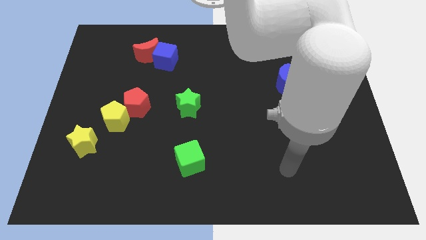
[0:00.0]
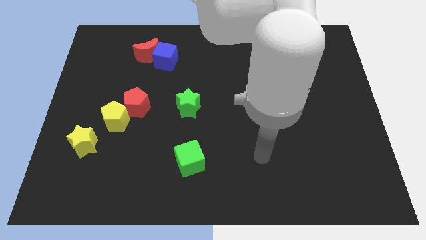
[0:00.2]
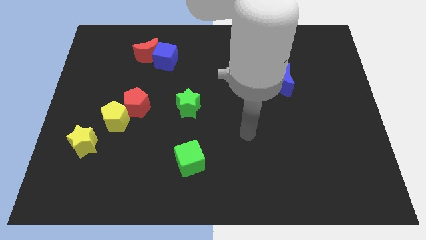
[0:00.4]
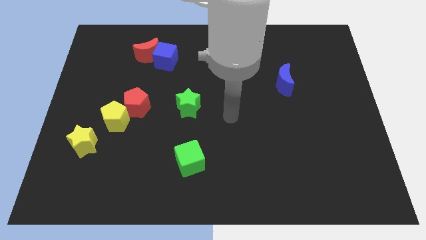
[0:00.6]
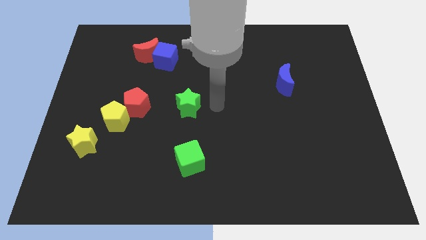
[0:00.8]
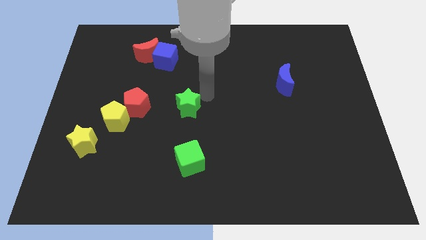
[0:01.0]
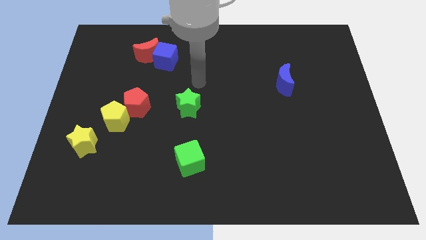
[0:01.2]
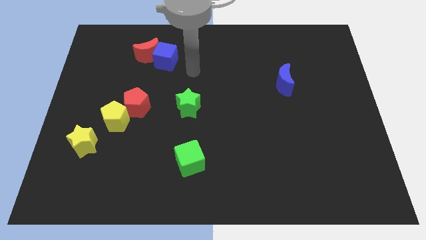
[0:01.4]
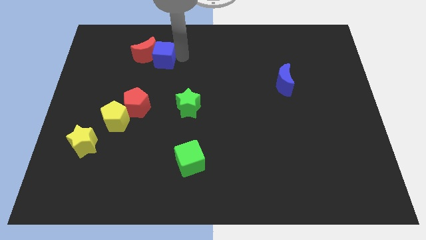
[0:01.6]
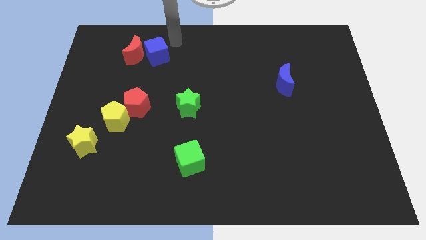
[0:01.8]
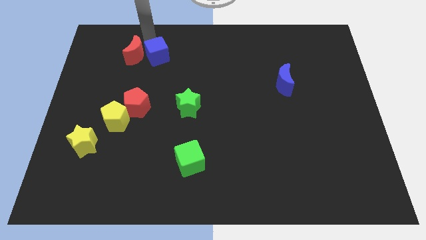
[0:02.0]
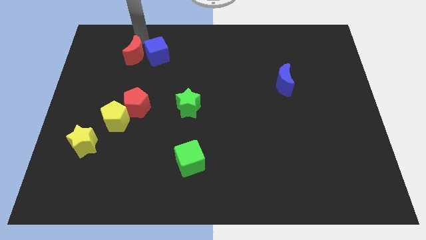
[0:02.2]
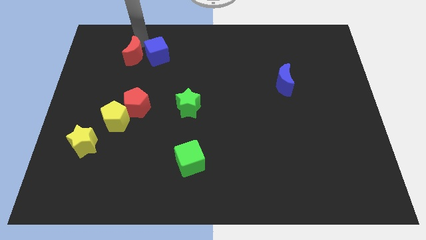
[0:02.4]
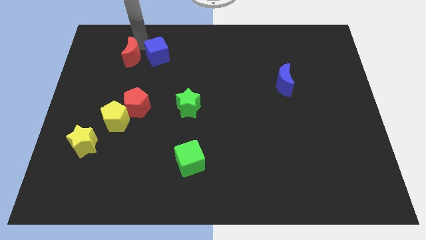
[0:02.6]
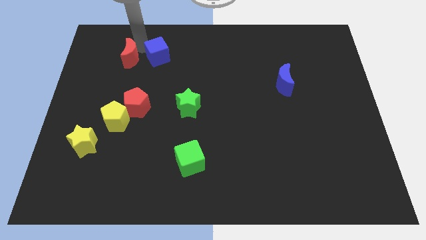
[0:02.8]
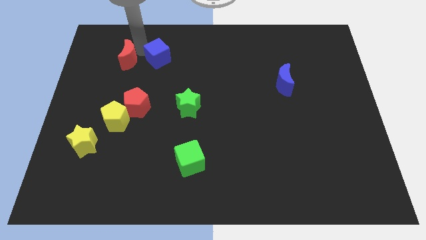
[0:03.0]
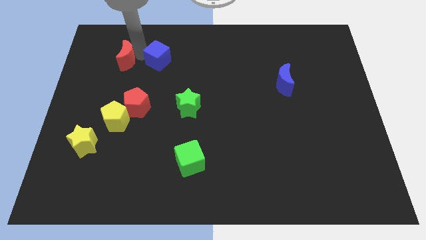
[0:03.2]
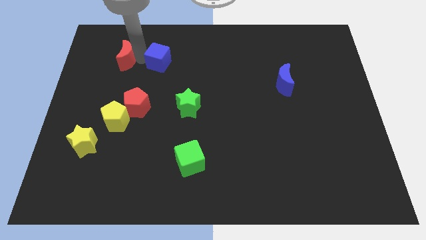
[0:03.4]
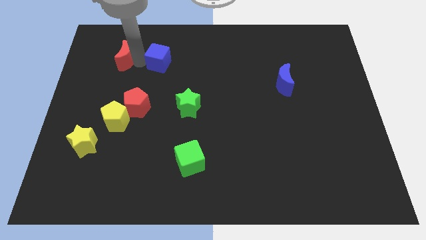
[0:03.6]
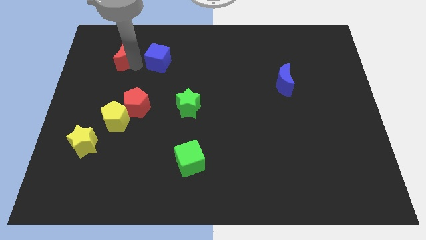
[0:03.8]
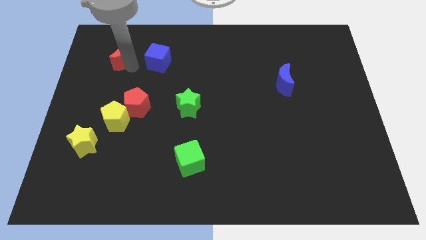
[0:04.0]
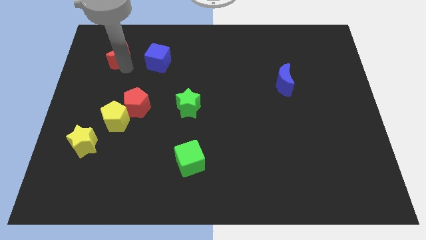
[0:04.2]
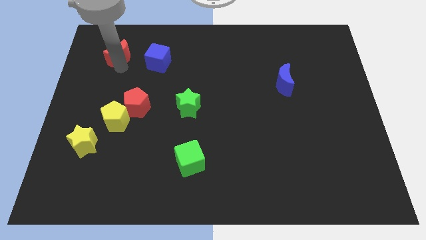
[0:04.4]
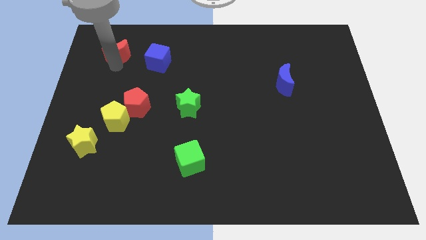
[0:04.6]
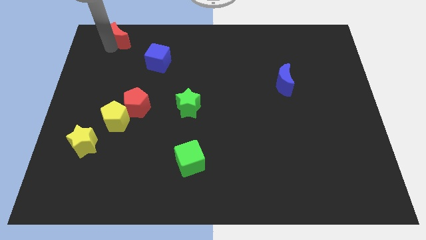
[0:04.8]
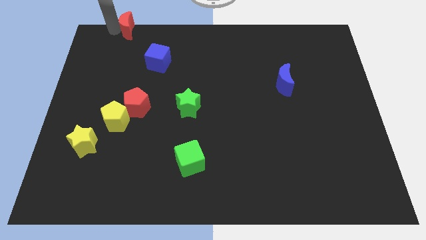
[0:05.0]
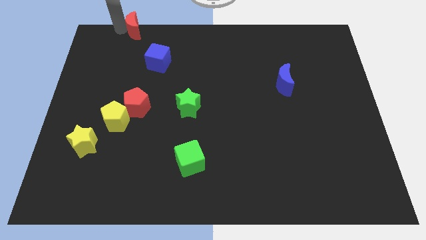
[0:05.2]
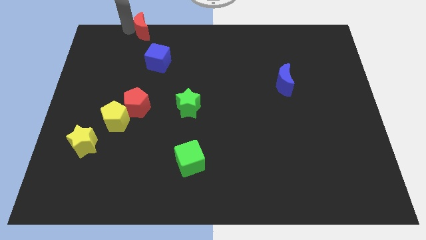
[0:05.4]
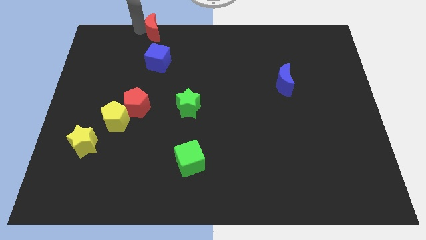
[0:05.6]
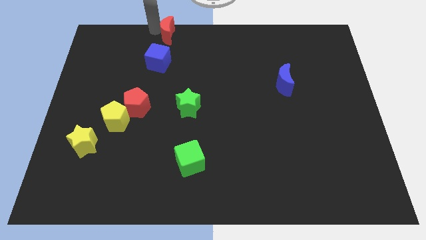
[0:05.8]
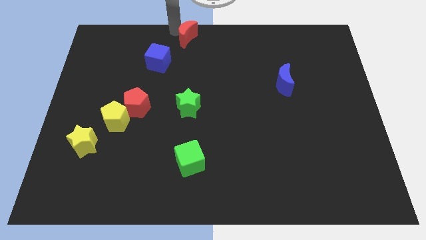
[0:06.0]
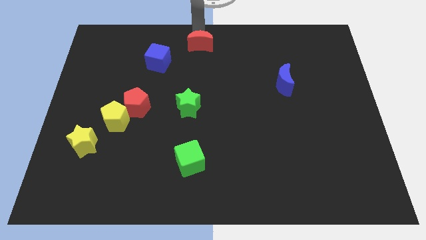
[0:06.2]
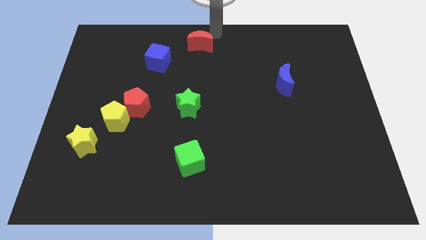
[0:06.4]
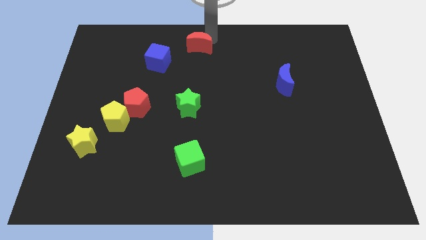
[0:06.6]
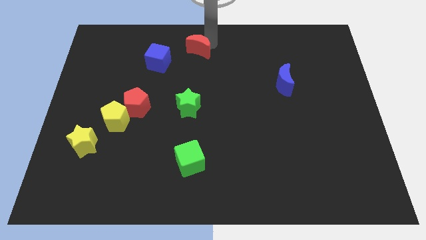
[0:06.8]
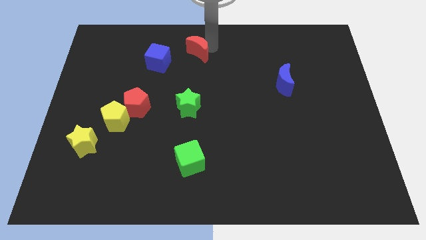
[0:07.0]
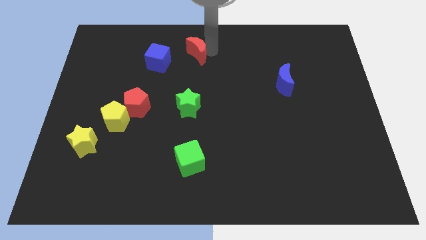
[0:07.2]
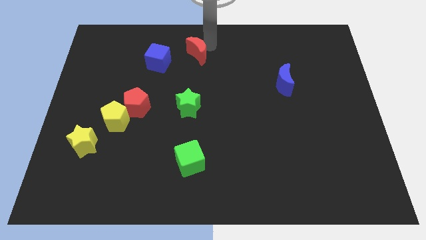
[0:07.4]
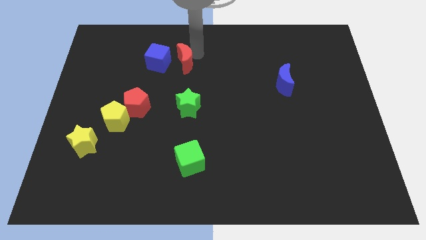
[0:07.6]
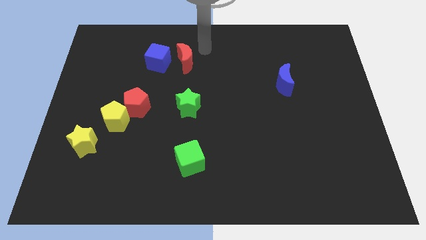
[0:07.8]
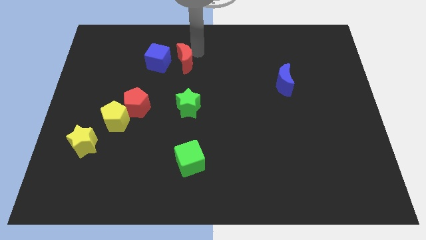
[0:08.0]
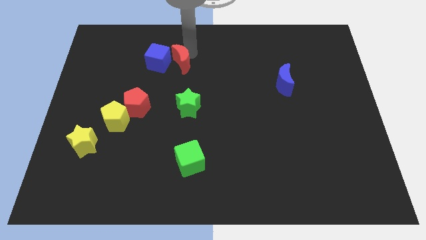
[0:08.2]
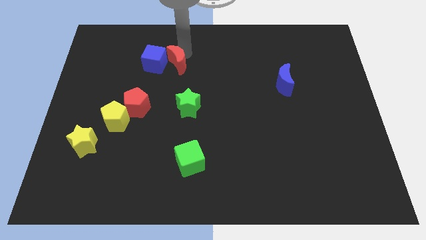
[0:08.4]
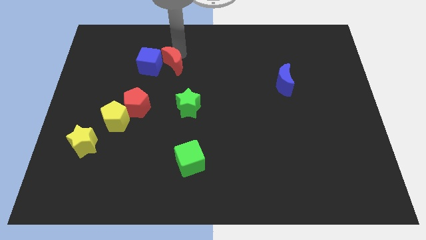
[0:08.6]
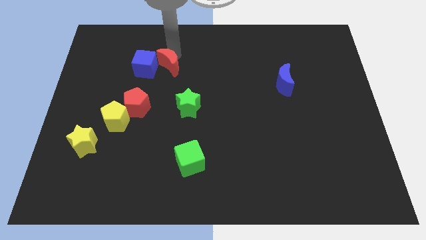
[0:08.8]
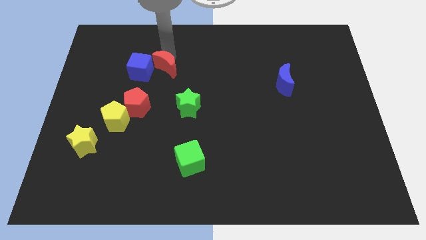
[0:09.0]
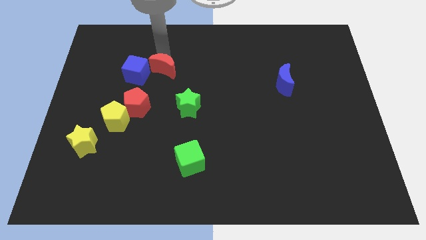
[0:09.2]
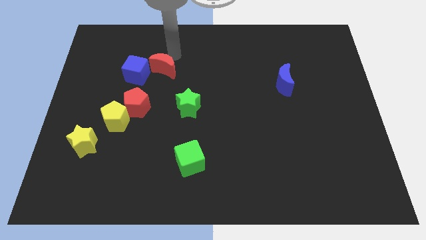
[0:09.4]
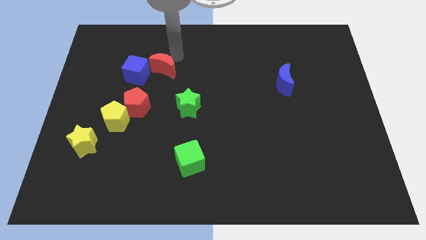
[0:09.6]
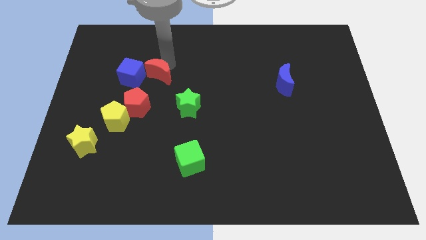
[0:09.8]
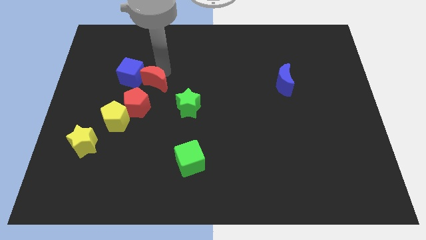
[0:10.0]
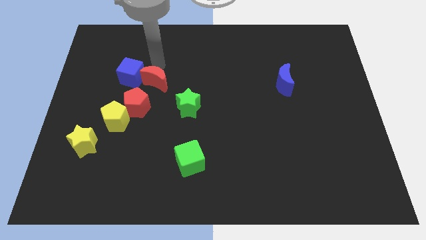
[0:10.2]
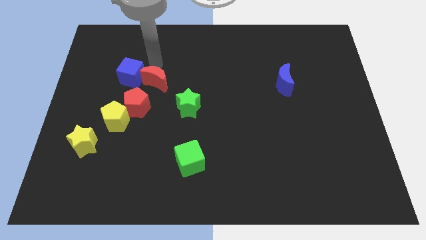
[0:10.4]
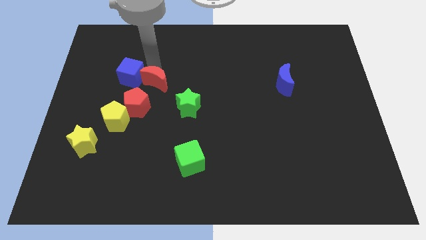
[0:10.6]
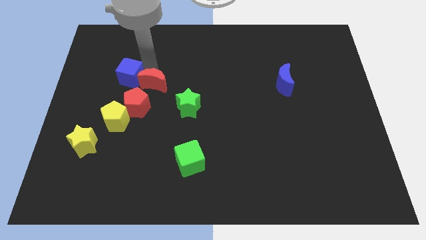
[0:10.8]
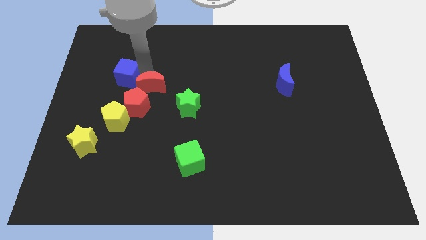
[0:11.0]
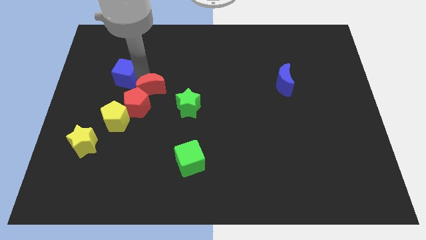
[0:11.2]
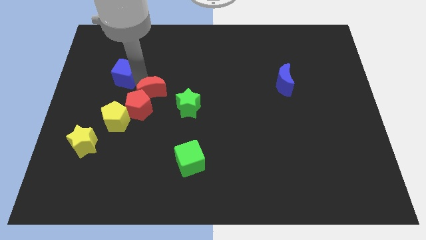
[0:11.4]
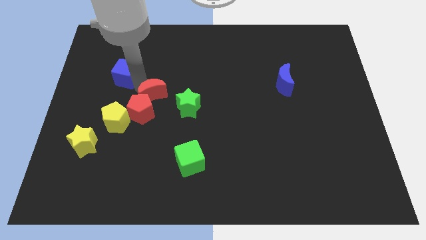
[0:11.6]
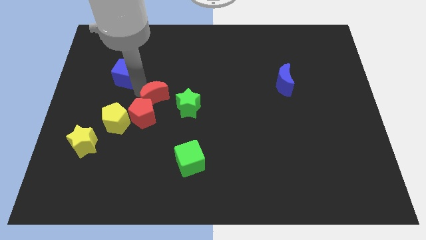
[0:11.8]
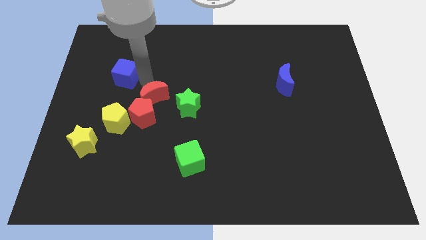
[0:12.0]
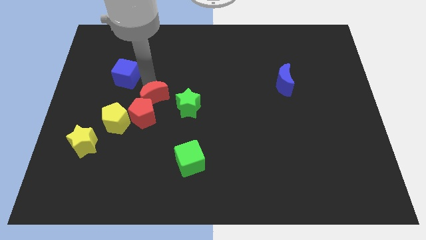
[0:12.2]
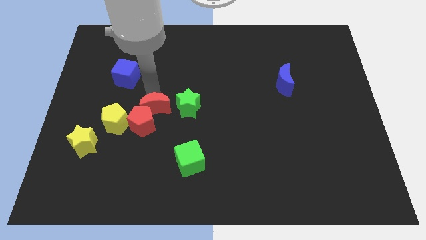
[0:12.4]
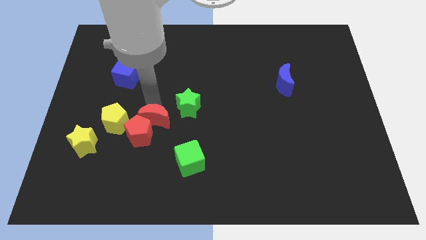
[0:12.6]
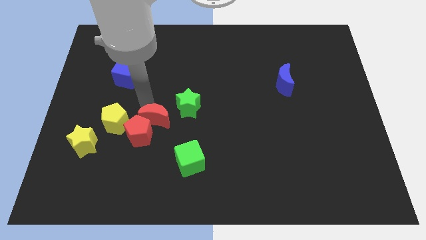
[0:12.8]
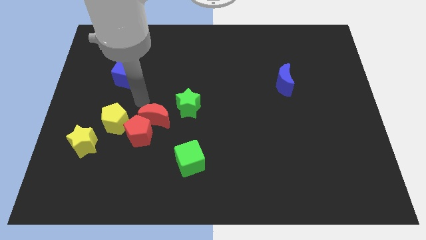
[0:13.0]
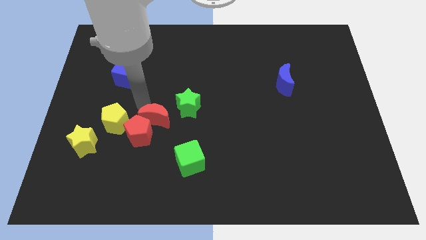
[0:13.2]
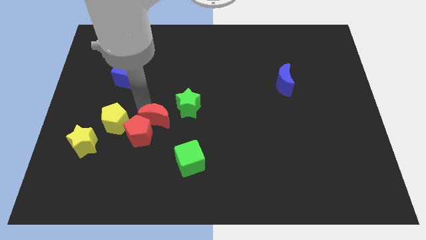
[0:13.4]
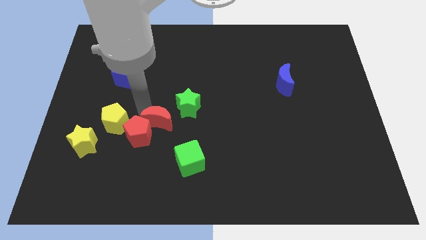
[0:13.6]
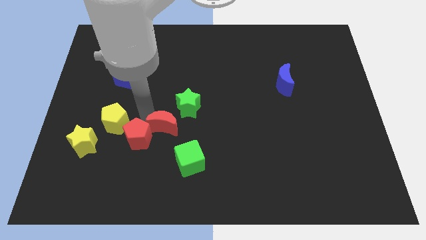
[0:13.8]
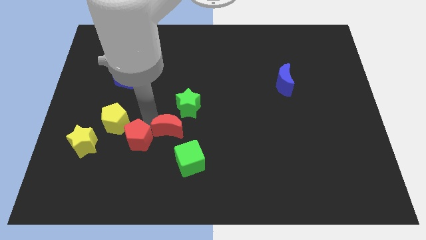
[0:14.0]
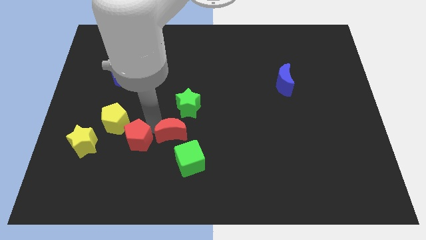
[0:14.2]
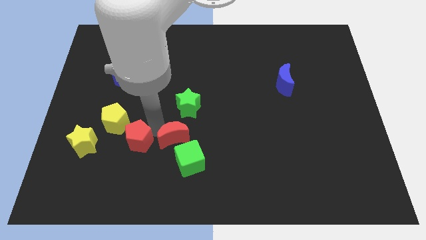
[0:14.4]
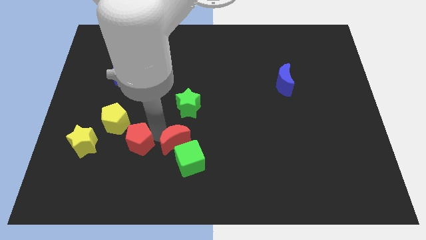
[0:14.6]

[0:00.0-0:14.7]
slide the red moon to the green cube
